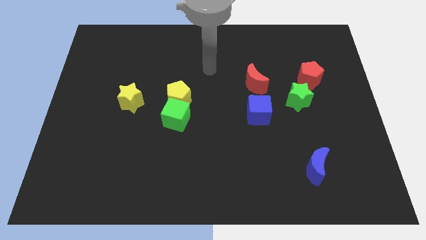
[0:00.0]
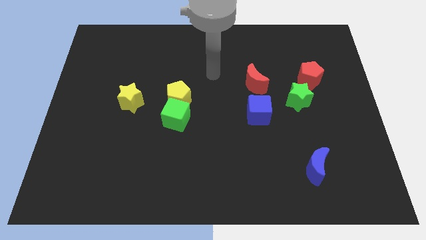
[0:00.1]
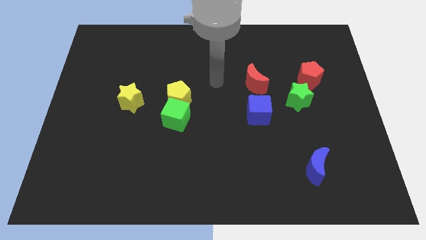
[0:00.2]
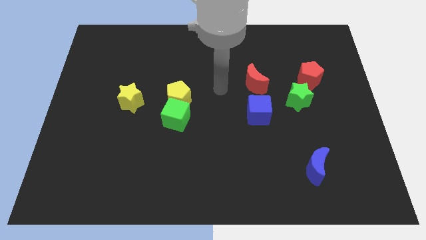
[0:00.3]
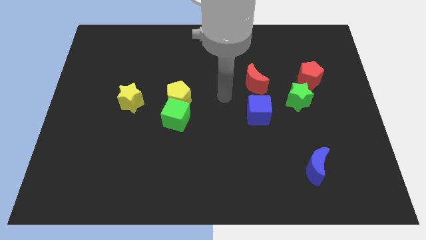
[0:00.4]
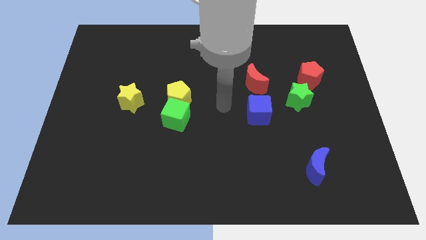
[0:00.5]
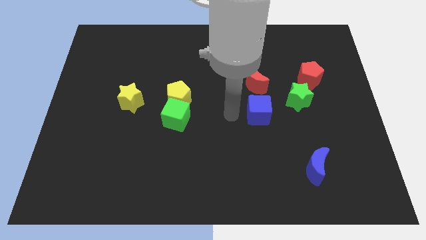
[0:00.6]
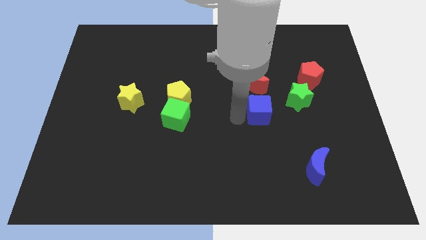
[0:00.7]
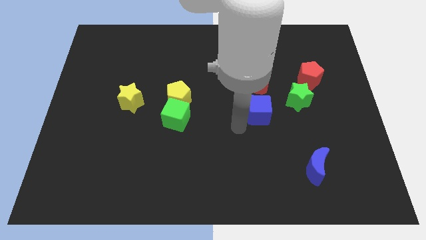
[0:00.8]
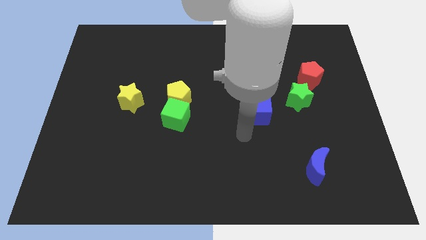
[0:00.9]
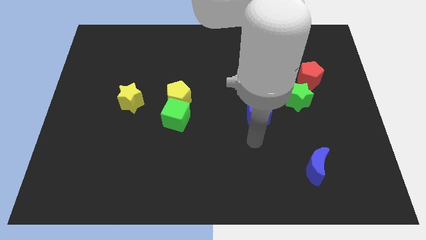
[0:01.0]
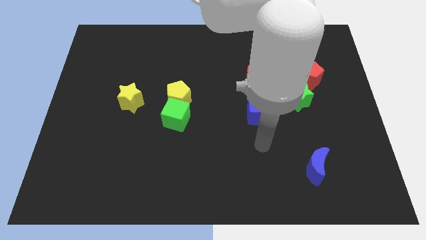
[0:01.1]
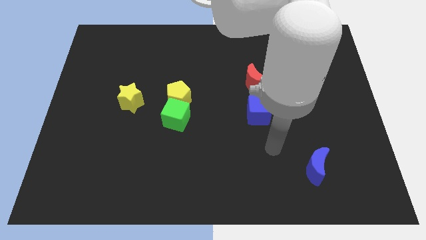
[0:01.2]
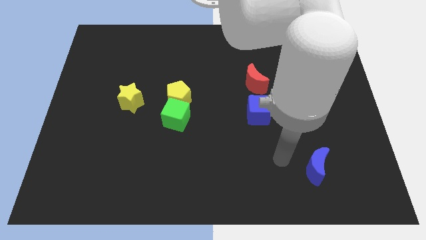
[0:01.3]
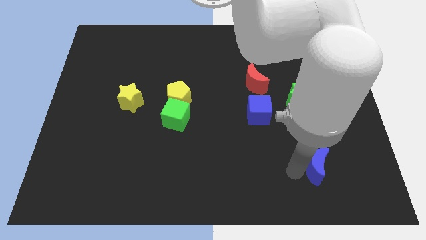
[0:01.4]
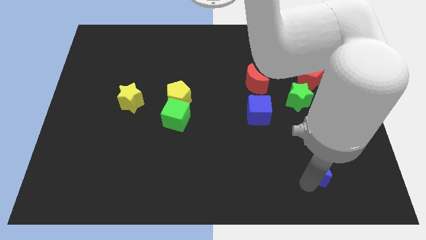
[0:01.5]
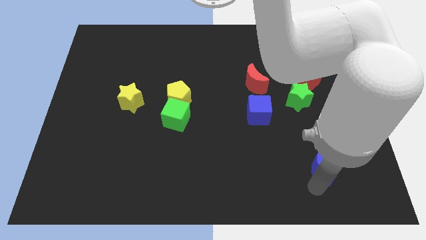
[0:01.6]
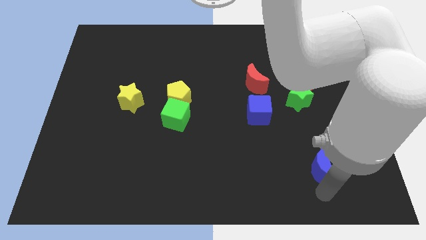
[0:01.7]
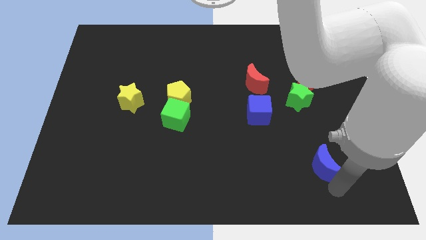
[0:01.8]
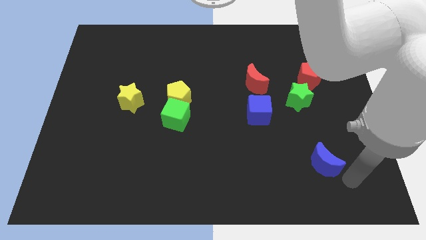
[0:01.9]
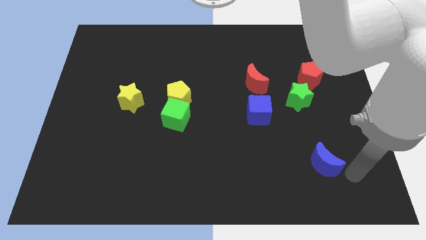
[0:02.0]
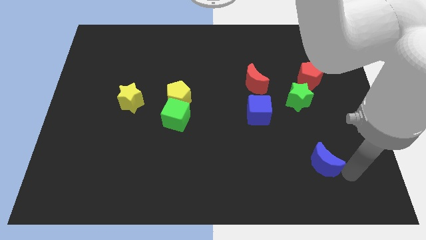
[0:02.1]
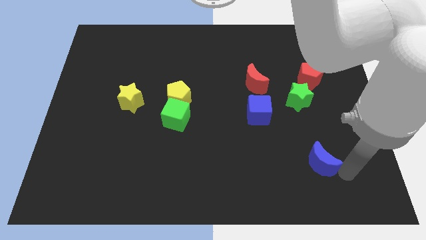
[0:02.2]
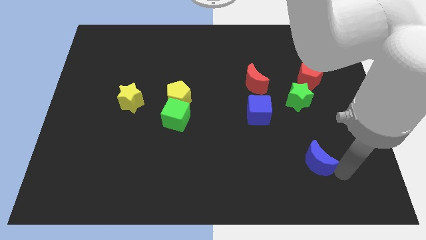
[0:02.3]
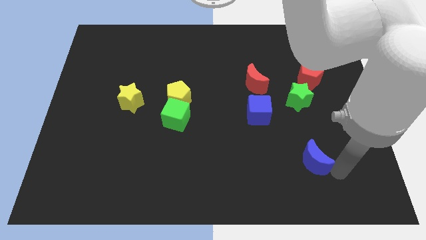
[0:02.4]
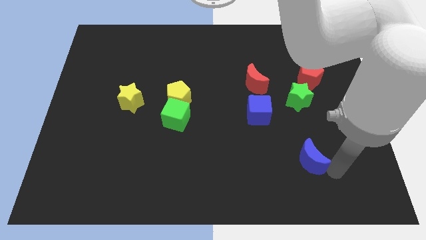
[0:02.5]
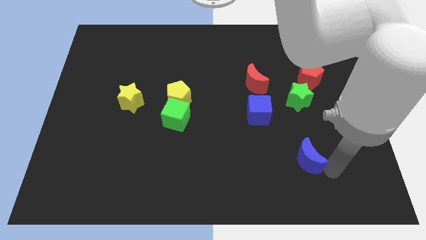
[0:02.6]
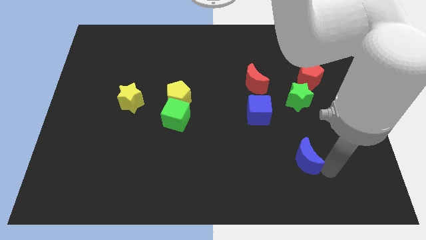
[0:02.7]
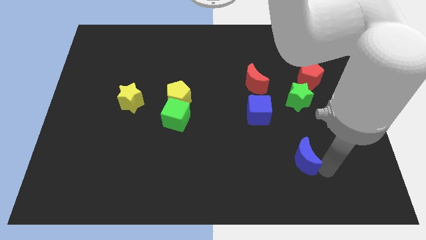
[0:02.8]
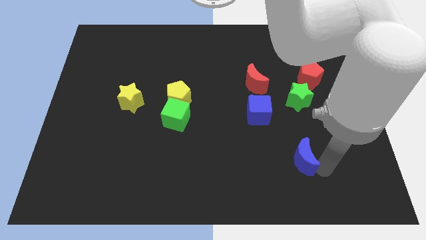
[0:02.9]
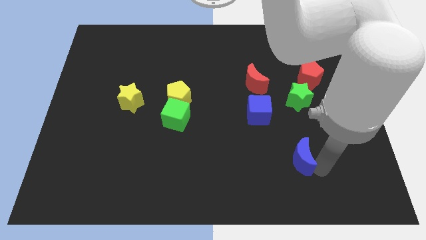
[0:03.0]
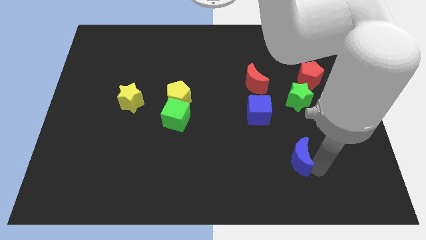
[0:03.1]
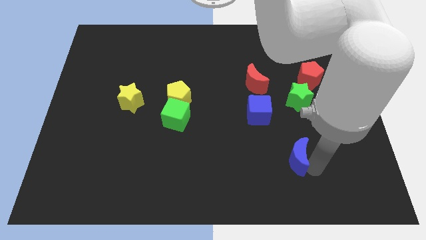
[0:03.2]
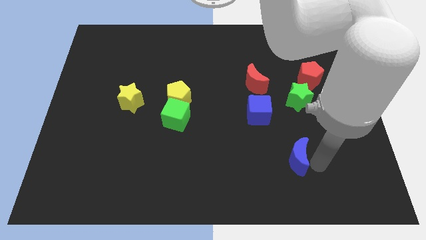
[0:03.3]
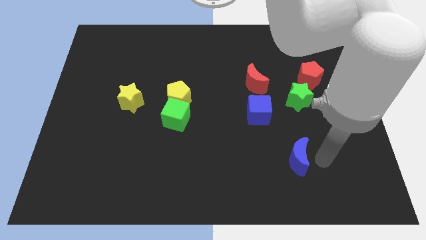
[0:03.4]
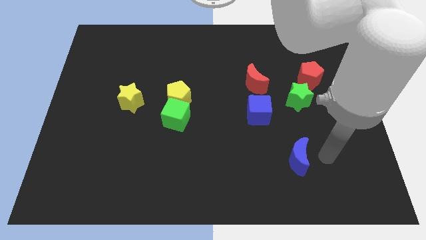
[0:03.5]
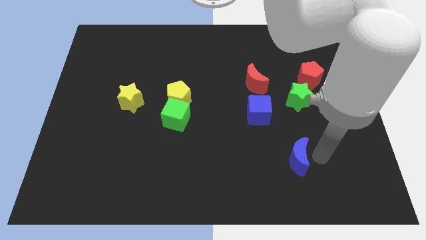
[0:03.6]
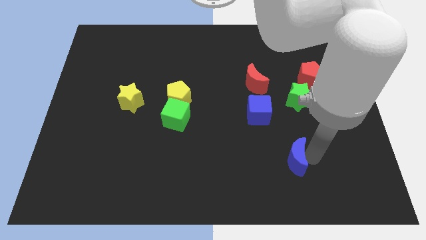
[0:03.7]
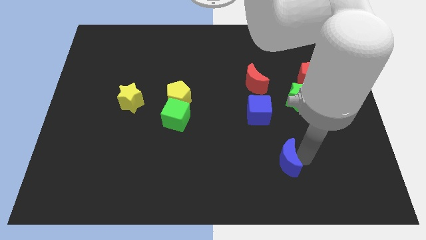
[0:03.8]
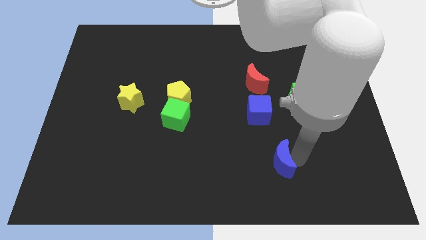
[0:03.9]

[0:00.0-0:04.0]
slide the blue moon slightly to the left

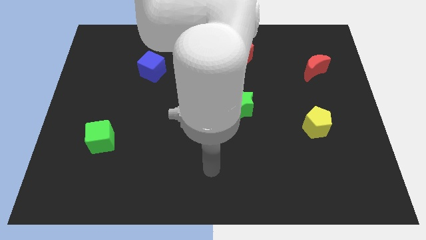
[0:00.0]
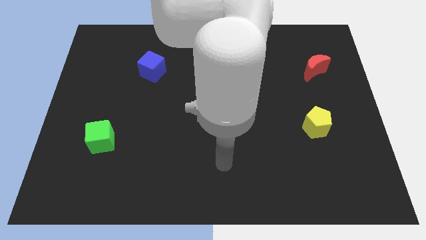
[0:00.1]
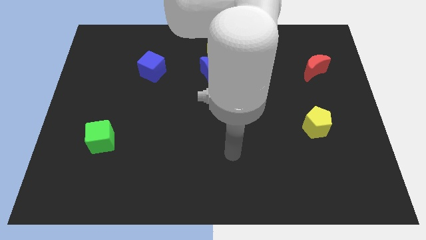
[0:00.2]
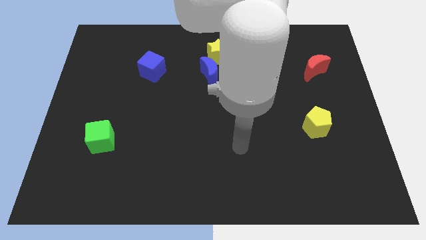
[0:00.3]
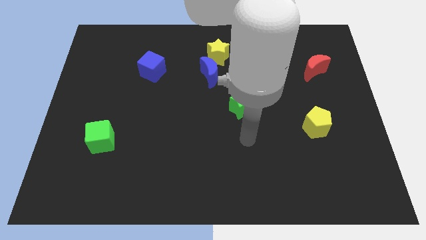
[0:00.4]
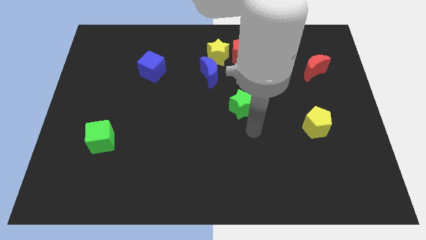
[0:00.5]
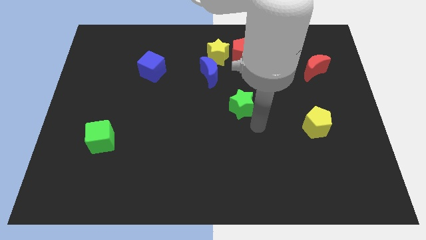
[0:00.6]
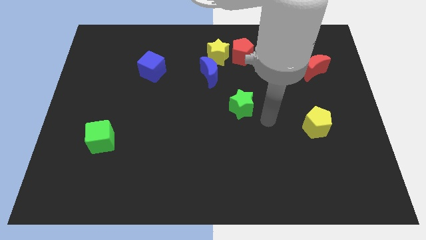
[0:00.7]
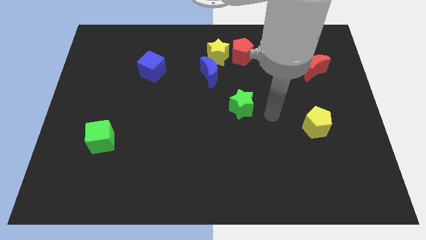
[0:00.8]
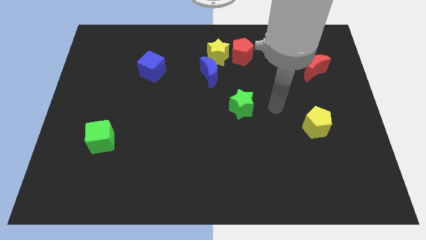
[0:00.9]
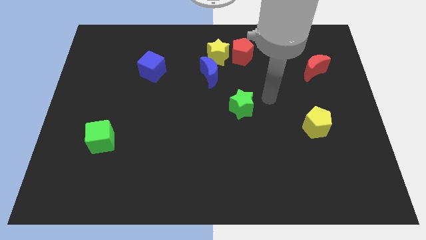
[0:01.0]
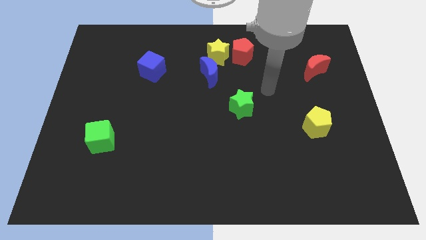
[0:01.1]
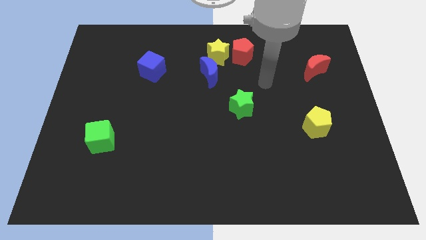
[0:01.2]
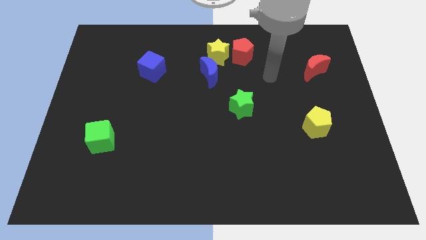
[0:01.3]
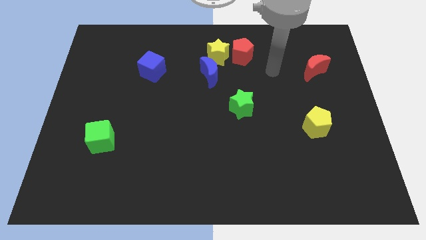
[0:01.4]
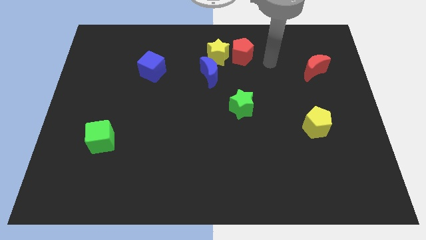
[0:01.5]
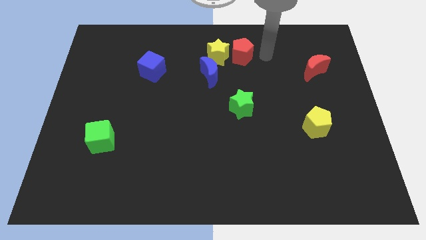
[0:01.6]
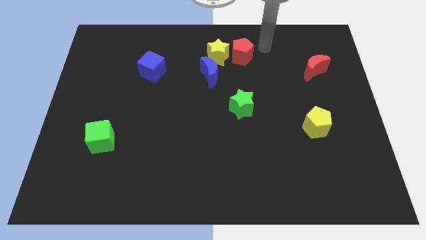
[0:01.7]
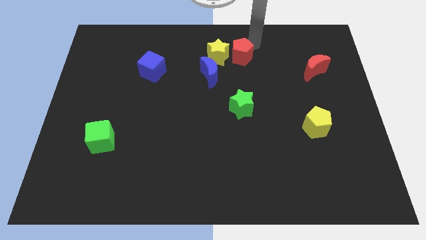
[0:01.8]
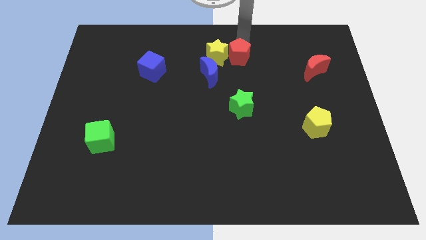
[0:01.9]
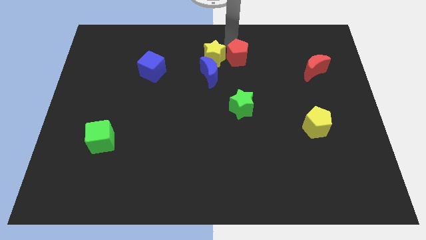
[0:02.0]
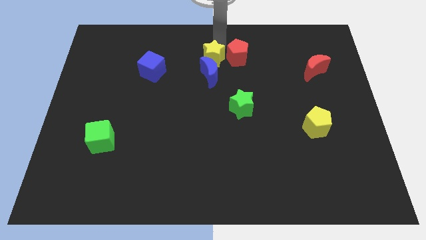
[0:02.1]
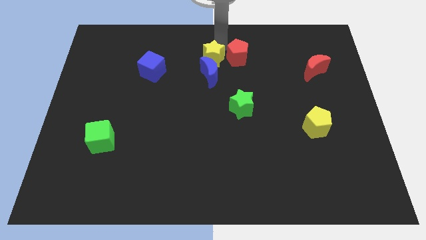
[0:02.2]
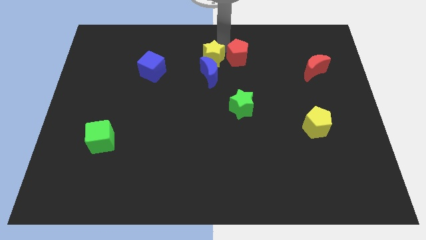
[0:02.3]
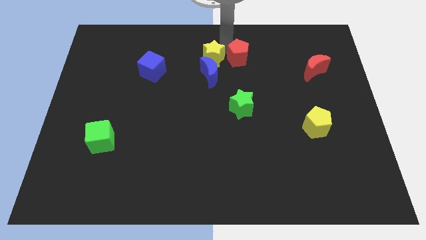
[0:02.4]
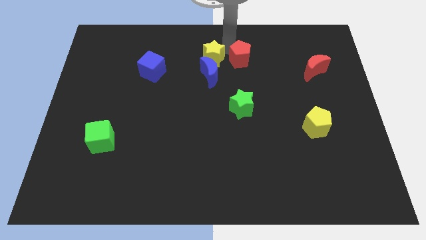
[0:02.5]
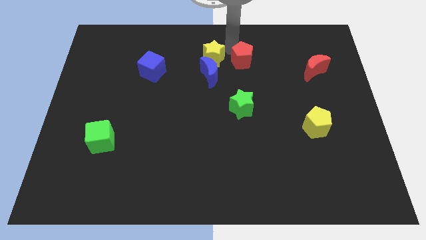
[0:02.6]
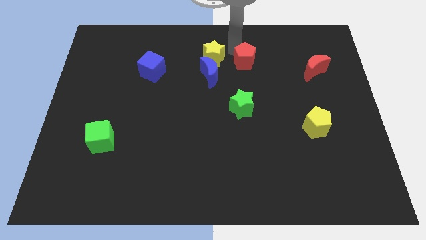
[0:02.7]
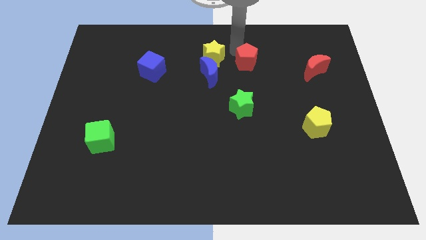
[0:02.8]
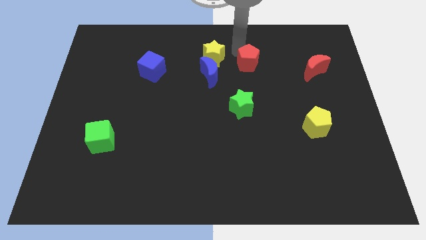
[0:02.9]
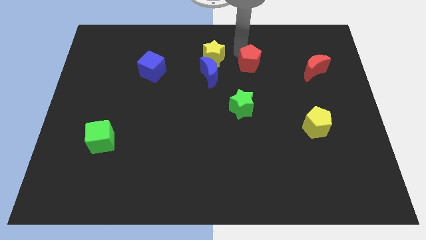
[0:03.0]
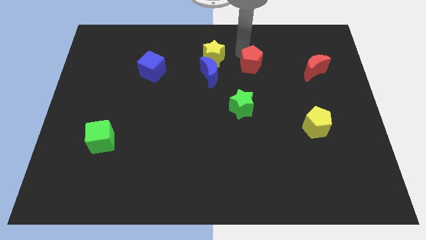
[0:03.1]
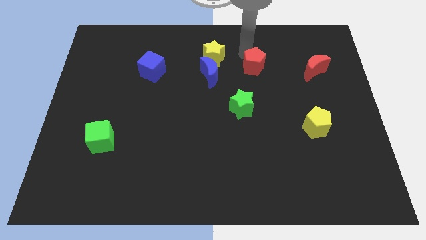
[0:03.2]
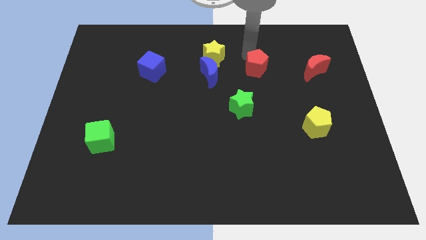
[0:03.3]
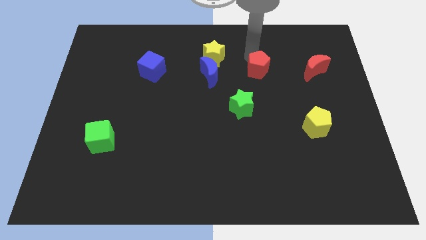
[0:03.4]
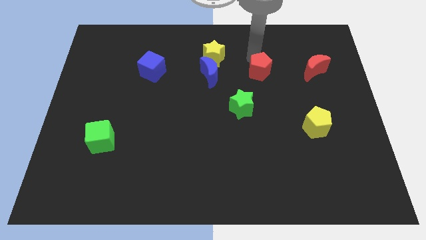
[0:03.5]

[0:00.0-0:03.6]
slide the red pentagon downwards and to the right a little bit

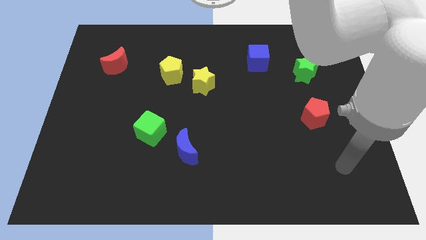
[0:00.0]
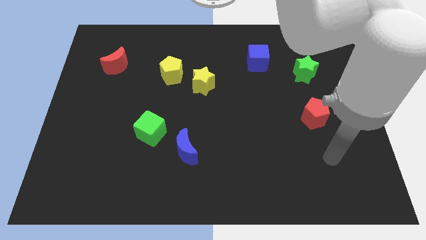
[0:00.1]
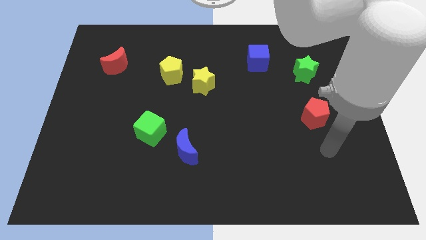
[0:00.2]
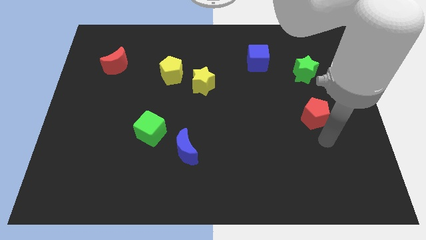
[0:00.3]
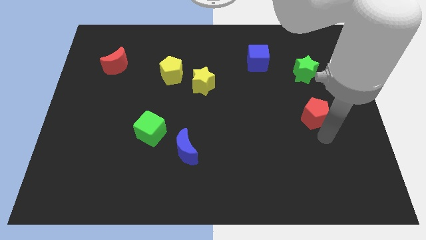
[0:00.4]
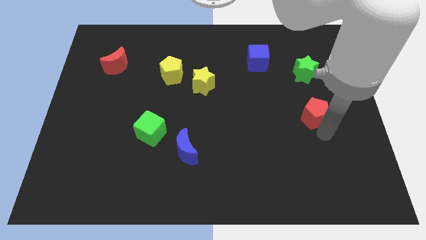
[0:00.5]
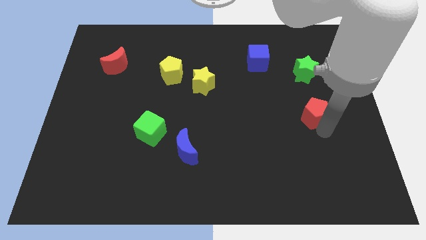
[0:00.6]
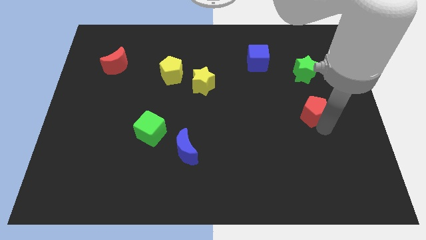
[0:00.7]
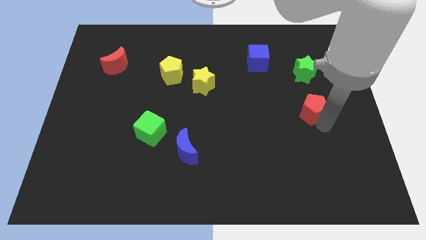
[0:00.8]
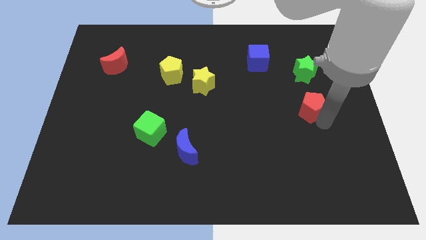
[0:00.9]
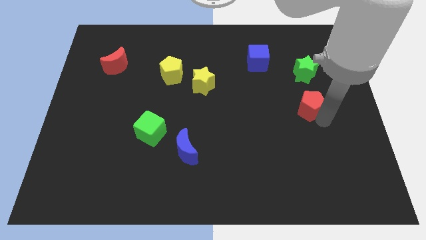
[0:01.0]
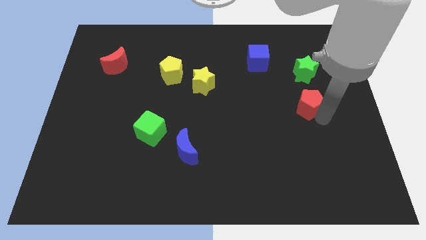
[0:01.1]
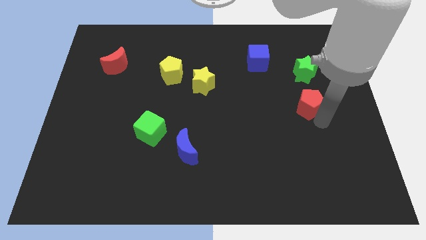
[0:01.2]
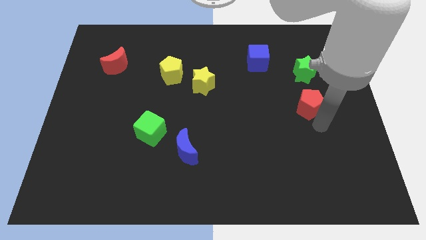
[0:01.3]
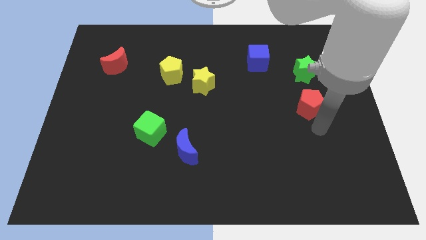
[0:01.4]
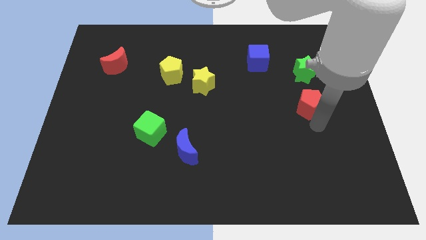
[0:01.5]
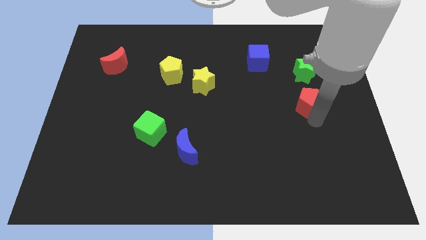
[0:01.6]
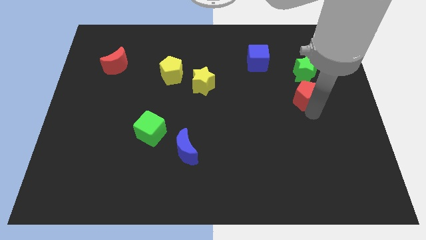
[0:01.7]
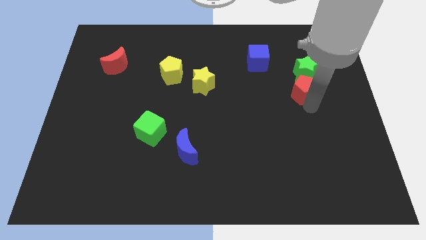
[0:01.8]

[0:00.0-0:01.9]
move the red pentagon slightly up
